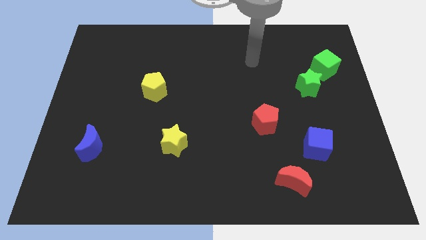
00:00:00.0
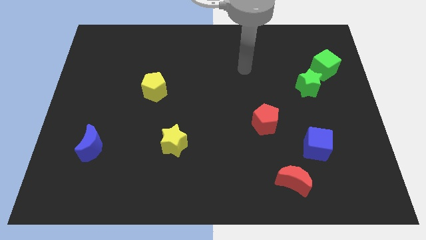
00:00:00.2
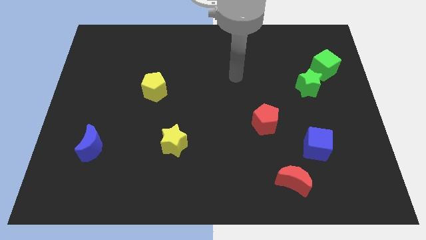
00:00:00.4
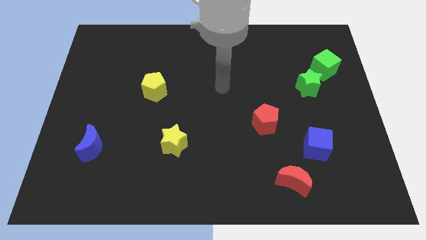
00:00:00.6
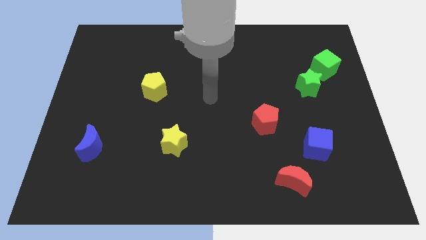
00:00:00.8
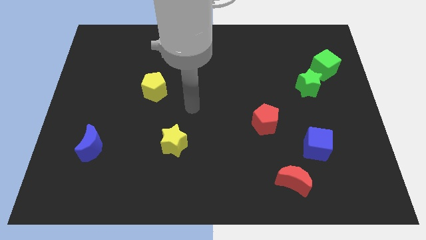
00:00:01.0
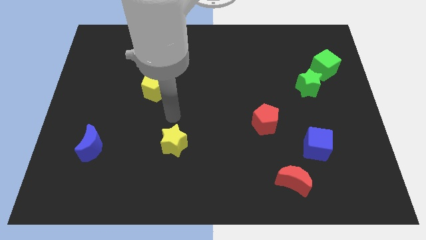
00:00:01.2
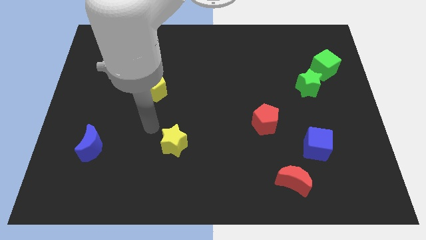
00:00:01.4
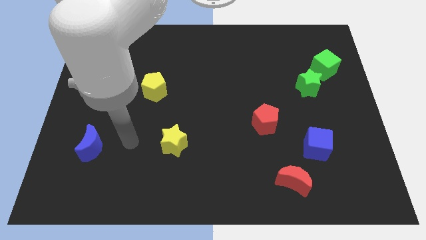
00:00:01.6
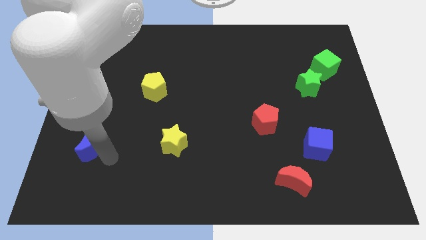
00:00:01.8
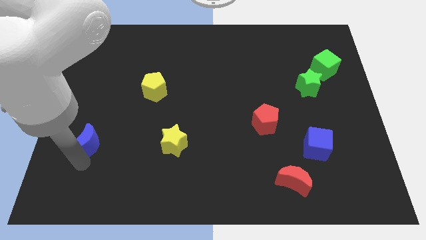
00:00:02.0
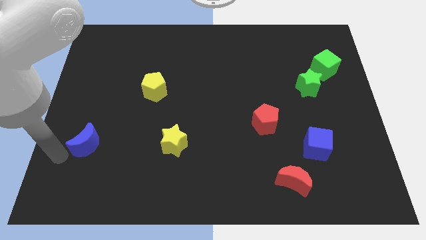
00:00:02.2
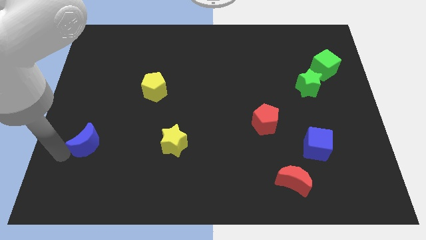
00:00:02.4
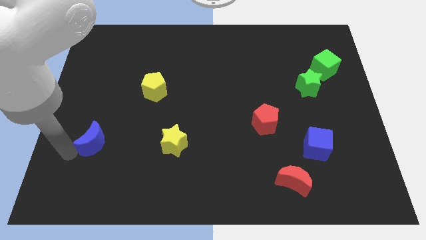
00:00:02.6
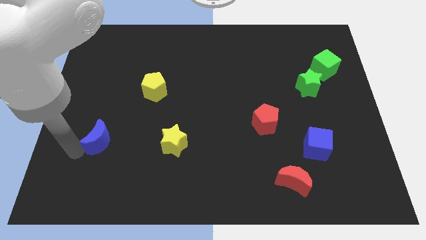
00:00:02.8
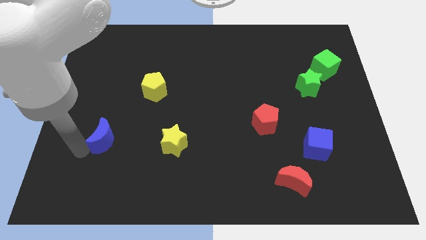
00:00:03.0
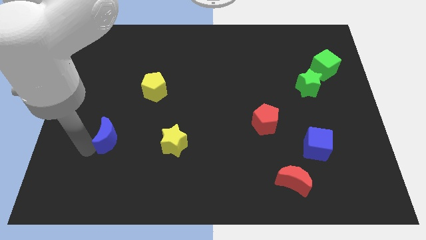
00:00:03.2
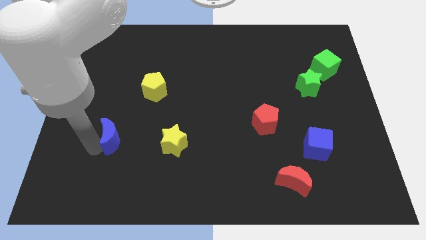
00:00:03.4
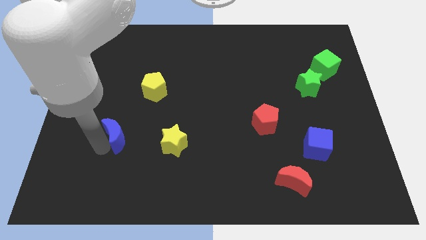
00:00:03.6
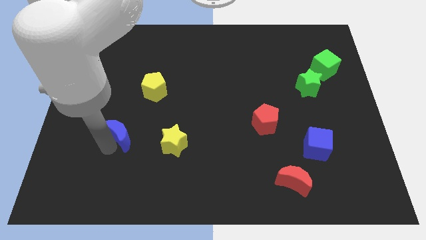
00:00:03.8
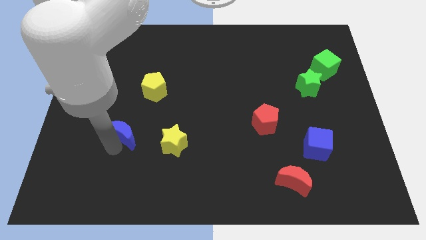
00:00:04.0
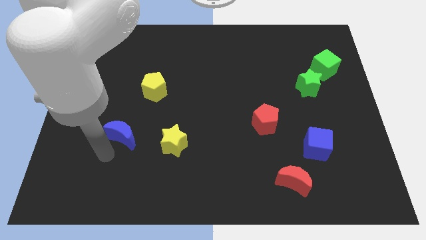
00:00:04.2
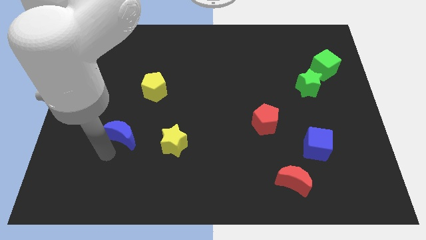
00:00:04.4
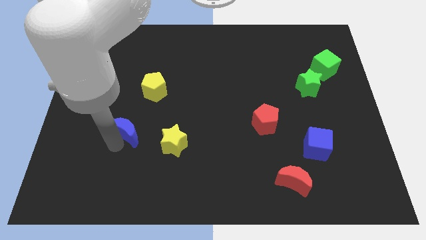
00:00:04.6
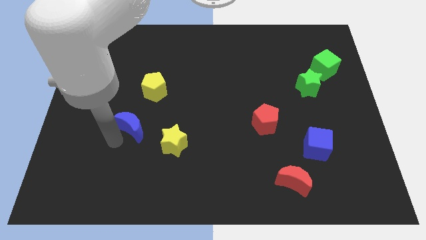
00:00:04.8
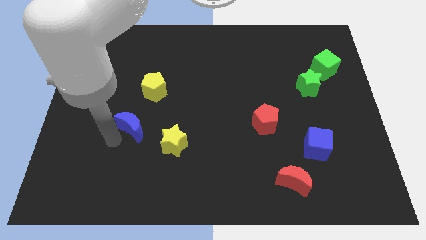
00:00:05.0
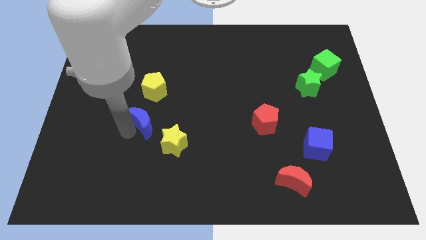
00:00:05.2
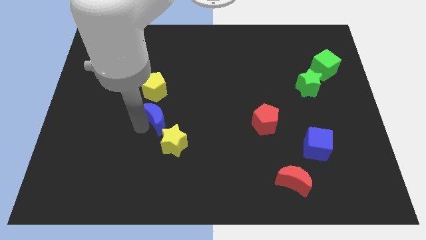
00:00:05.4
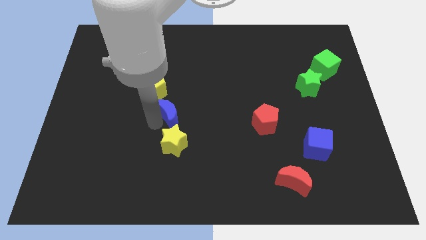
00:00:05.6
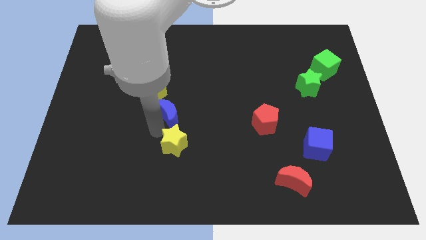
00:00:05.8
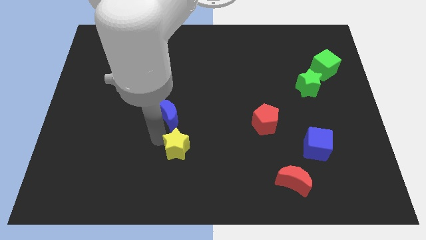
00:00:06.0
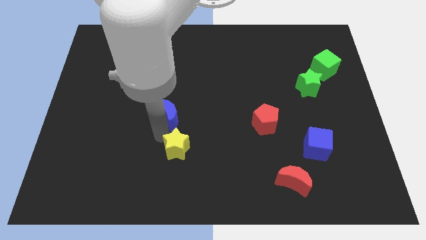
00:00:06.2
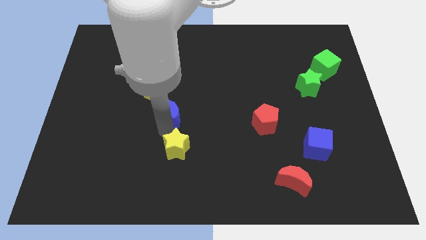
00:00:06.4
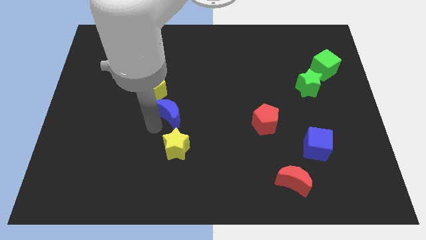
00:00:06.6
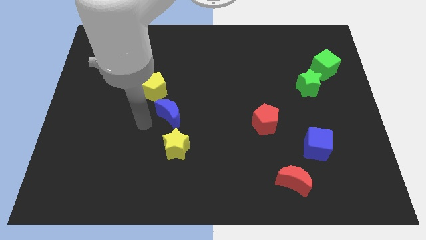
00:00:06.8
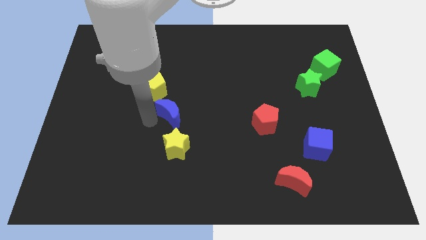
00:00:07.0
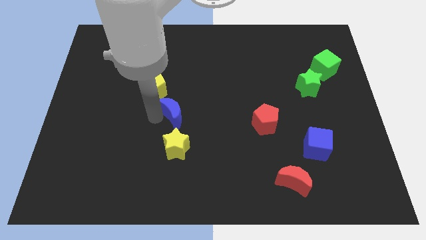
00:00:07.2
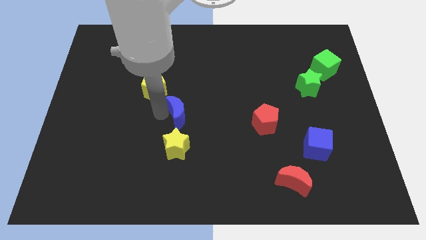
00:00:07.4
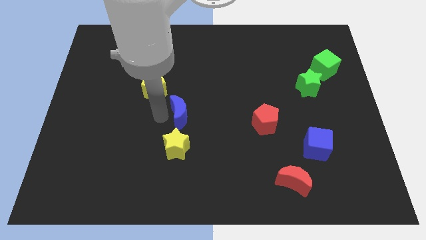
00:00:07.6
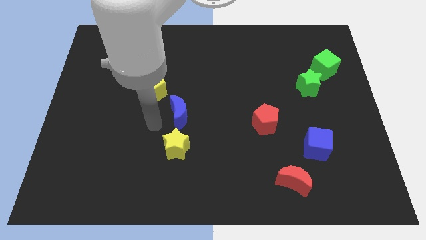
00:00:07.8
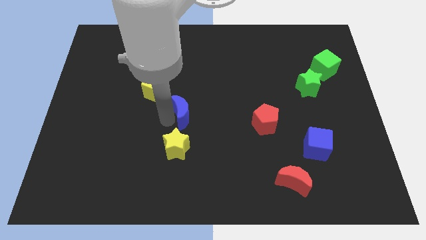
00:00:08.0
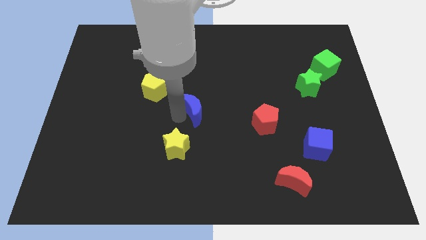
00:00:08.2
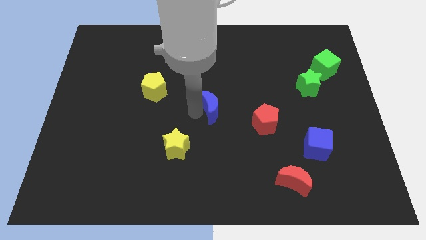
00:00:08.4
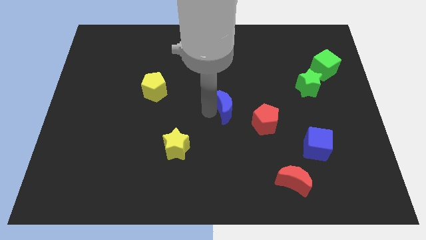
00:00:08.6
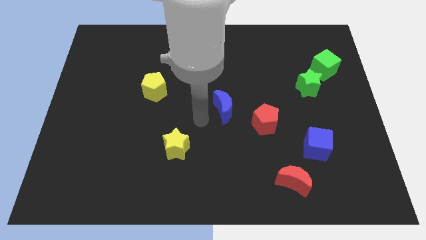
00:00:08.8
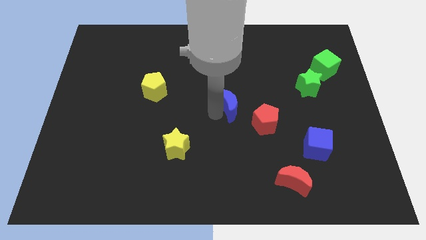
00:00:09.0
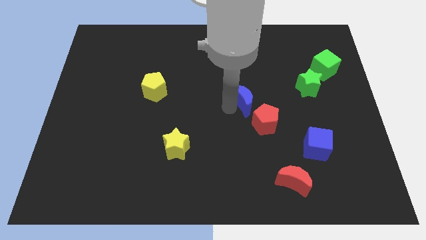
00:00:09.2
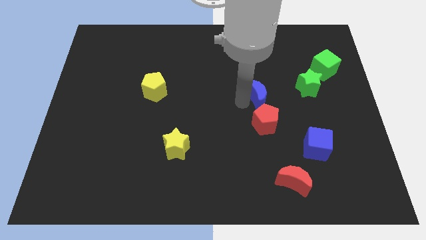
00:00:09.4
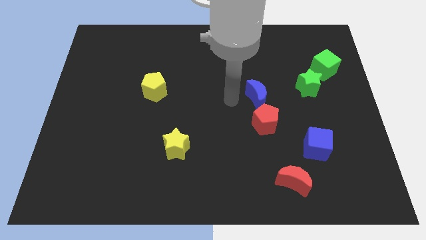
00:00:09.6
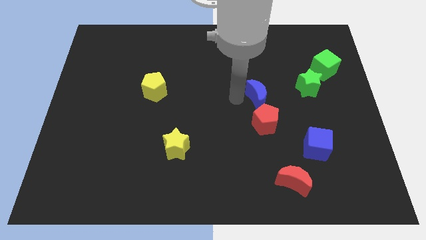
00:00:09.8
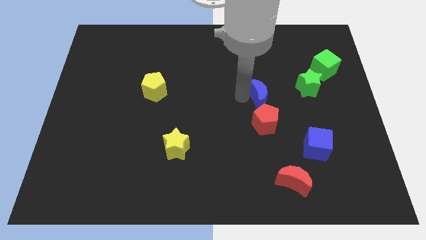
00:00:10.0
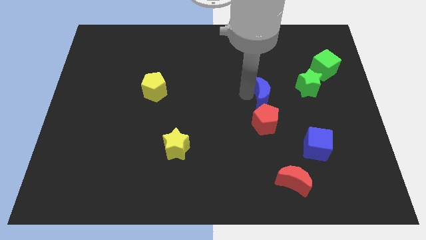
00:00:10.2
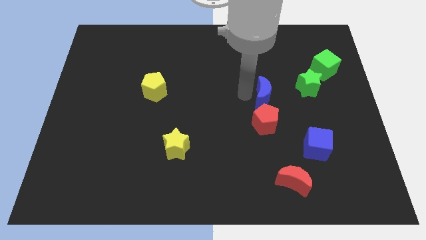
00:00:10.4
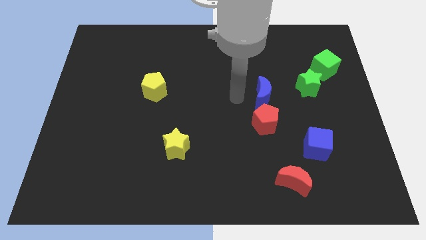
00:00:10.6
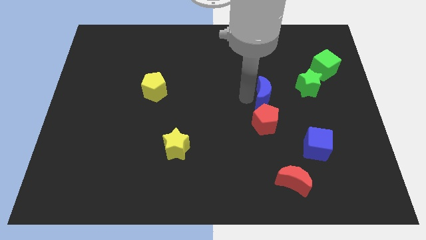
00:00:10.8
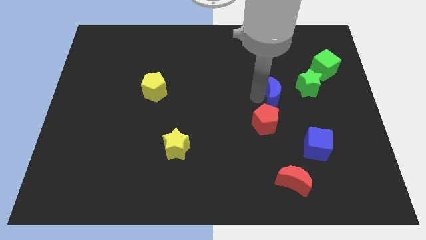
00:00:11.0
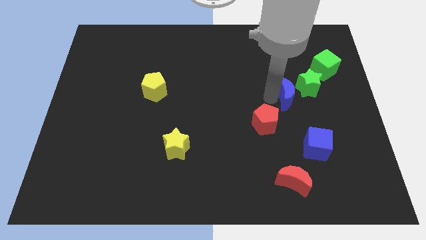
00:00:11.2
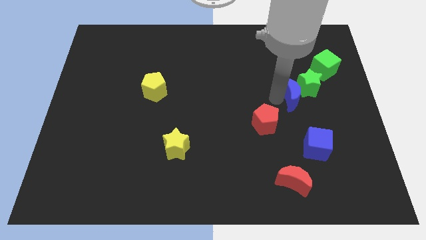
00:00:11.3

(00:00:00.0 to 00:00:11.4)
push the blue moon to the green star

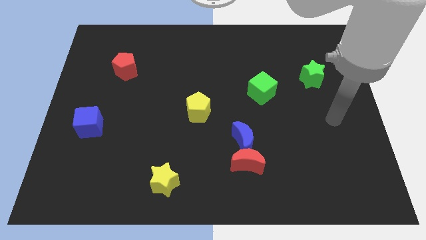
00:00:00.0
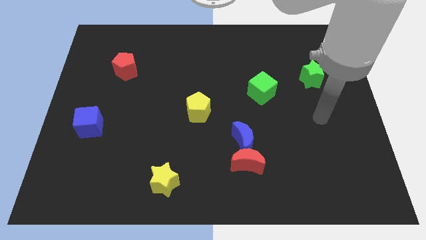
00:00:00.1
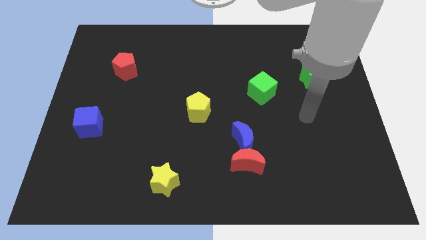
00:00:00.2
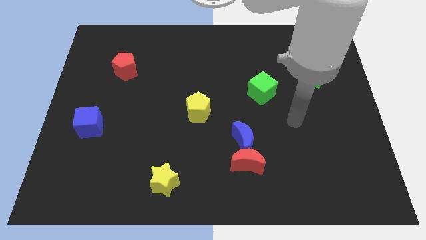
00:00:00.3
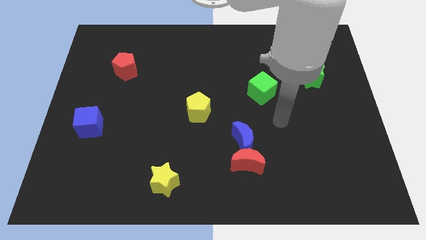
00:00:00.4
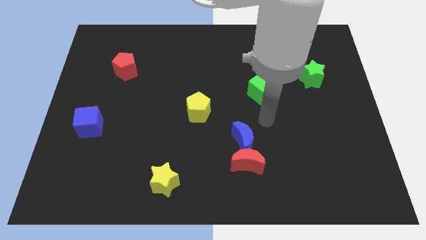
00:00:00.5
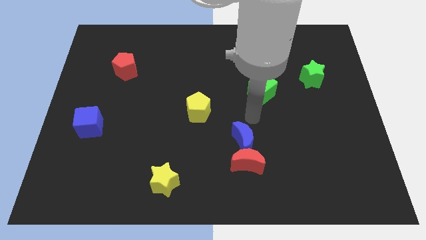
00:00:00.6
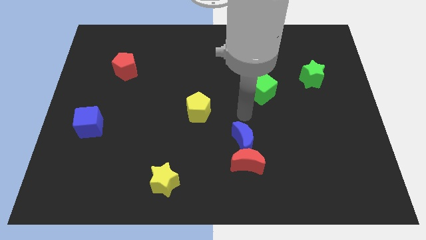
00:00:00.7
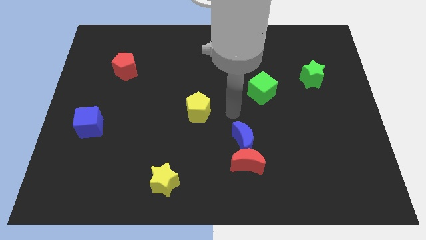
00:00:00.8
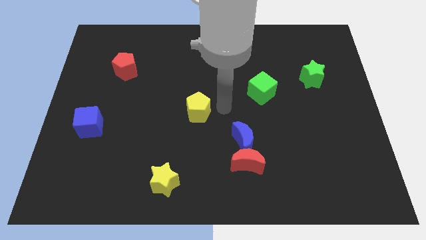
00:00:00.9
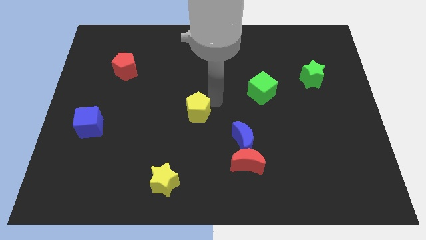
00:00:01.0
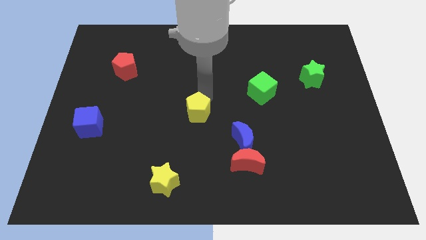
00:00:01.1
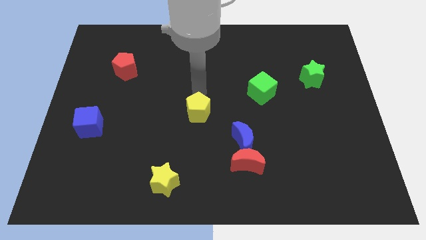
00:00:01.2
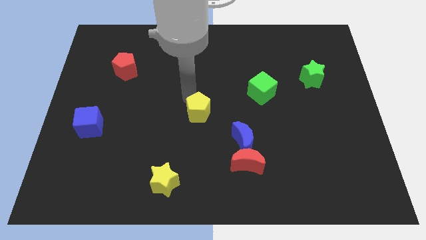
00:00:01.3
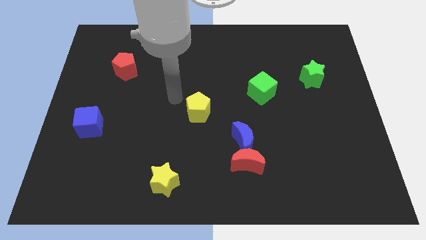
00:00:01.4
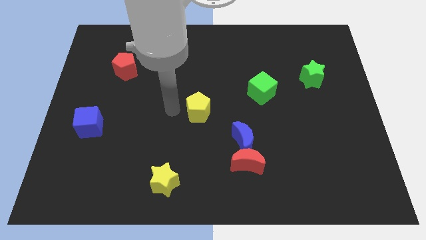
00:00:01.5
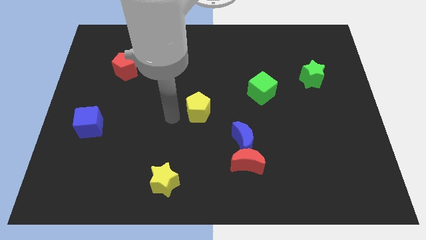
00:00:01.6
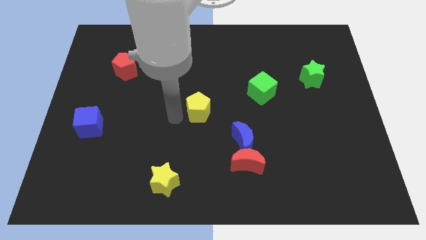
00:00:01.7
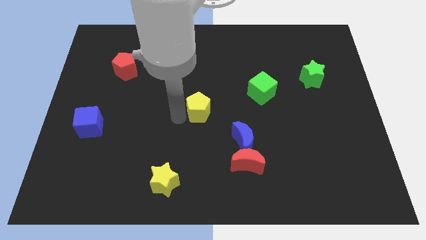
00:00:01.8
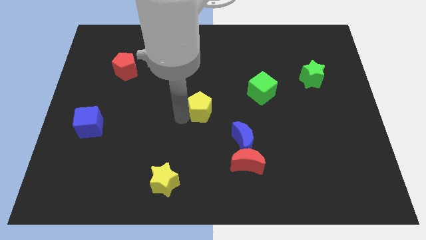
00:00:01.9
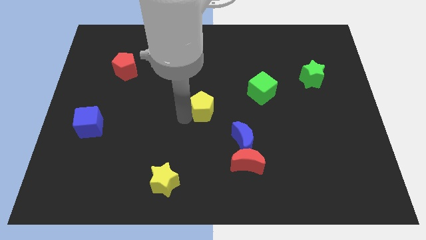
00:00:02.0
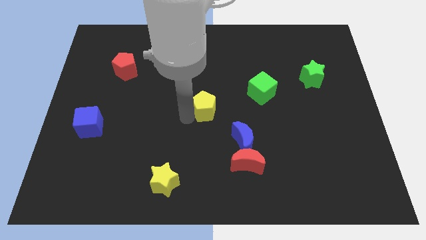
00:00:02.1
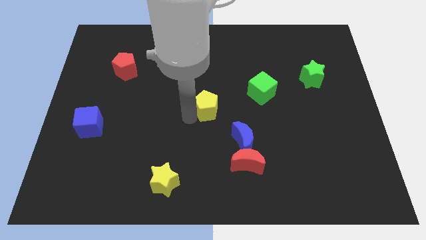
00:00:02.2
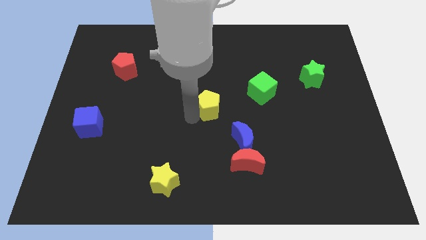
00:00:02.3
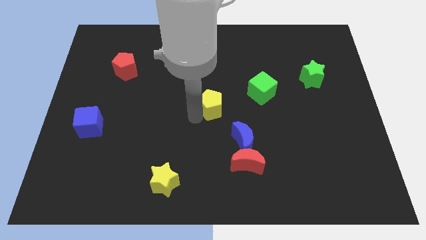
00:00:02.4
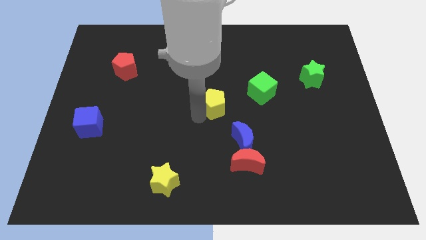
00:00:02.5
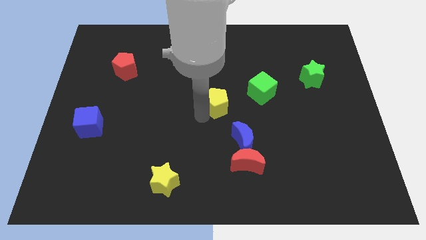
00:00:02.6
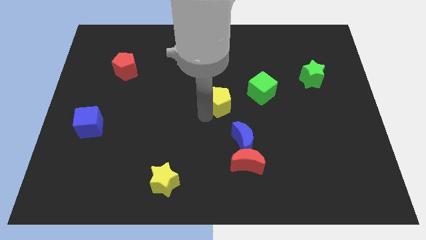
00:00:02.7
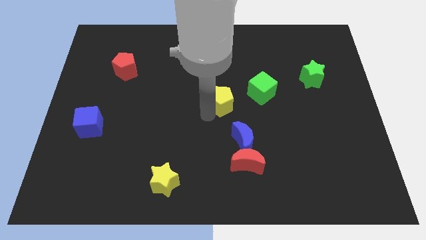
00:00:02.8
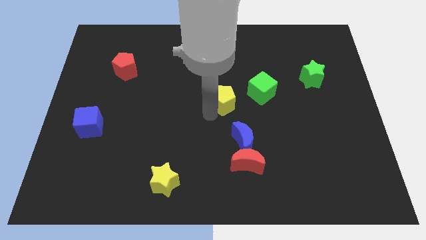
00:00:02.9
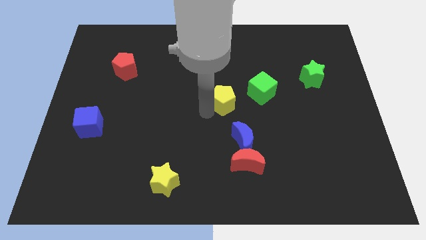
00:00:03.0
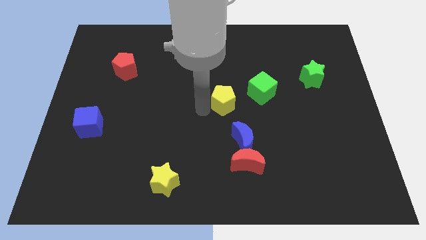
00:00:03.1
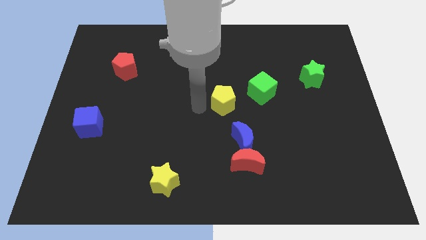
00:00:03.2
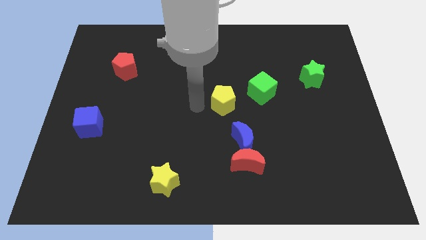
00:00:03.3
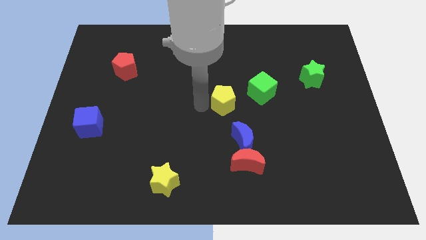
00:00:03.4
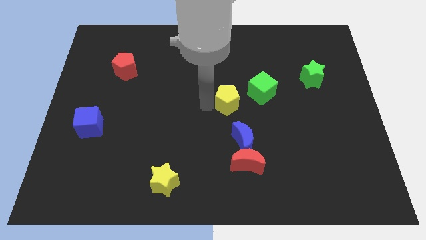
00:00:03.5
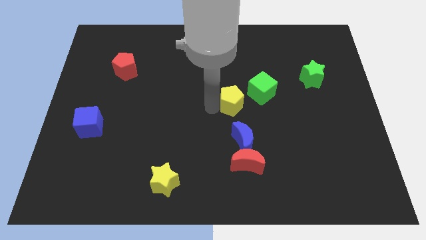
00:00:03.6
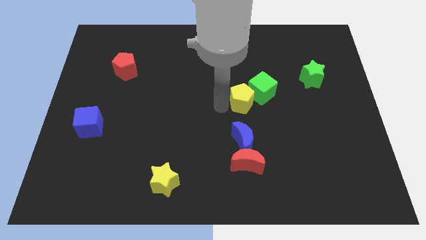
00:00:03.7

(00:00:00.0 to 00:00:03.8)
slide the yellow pentagon towards the green cube
